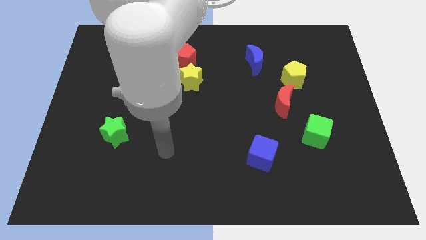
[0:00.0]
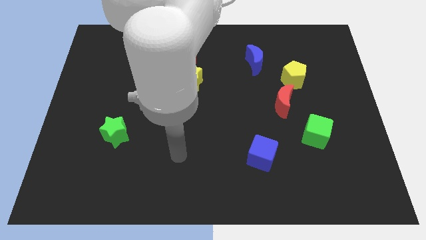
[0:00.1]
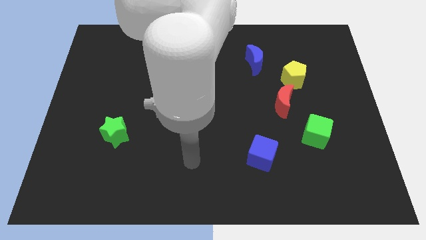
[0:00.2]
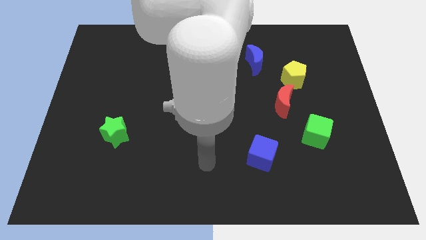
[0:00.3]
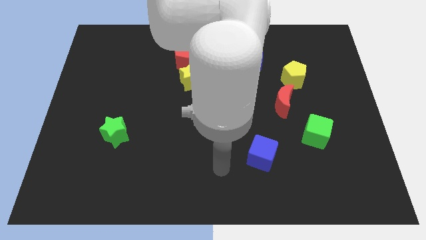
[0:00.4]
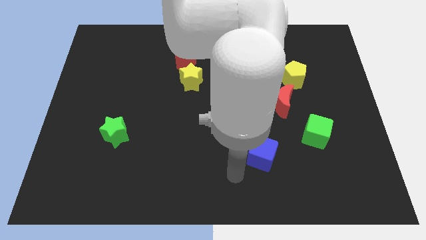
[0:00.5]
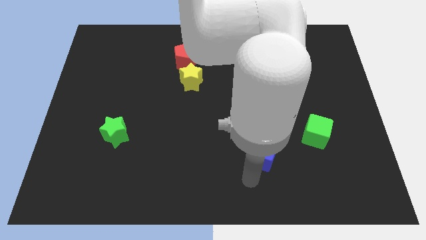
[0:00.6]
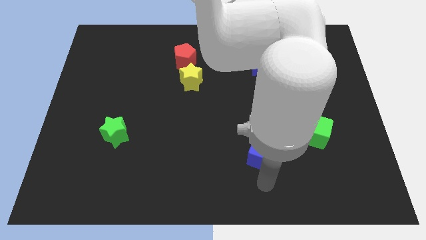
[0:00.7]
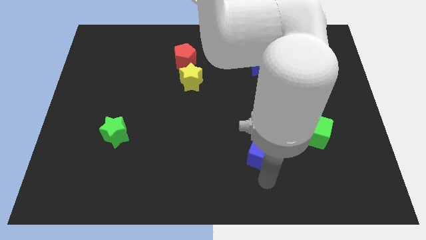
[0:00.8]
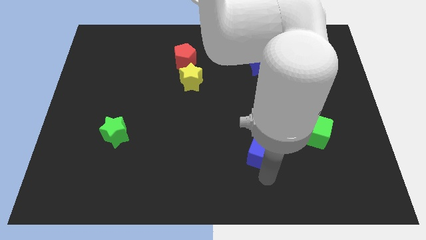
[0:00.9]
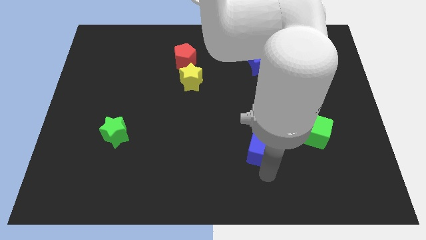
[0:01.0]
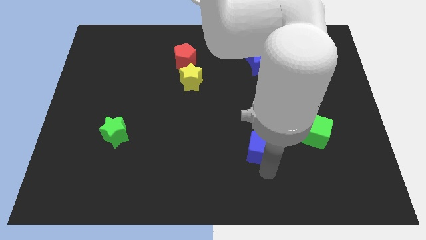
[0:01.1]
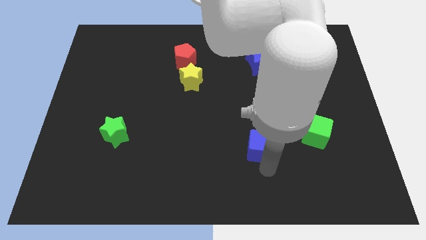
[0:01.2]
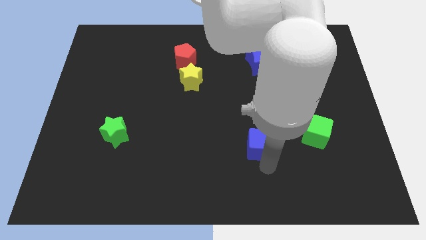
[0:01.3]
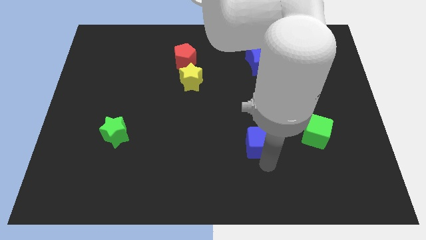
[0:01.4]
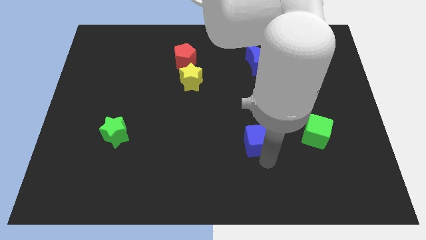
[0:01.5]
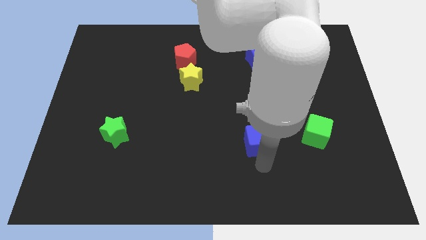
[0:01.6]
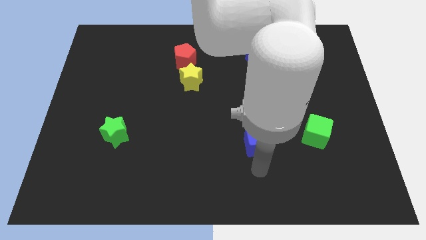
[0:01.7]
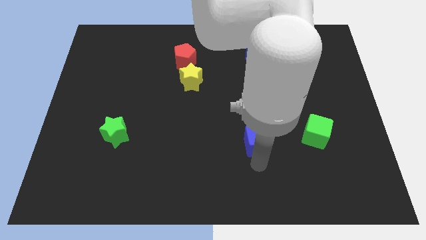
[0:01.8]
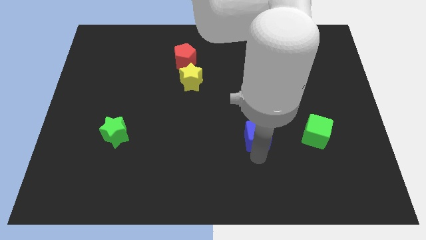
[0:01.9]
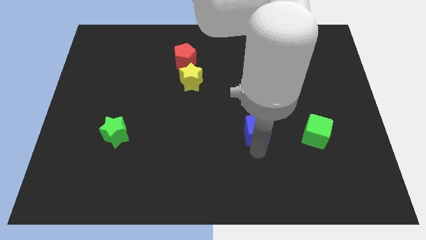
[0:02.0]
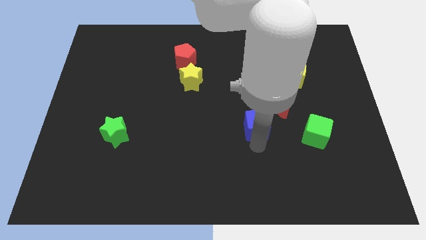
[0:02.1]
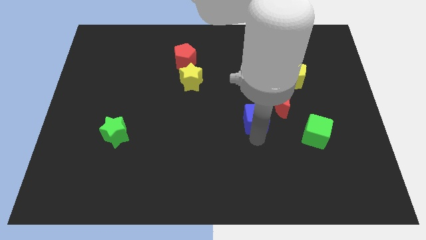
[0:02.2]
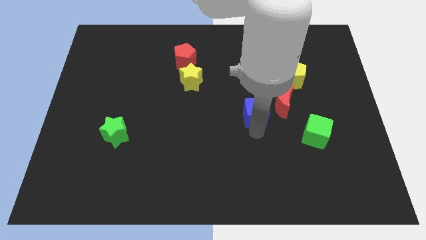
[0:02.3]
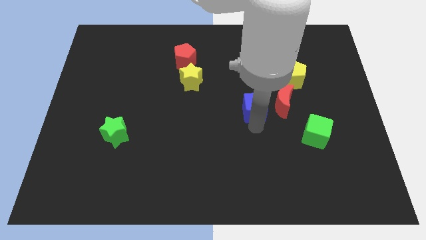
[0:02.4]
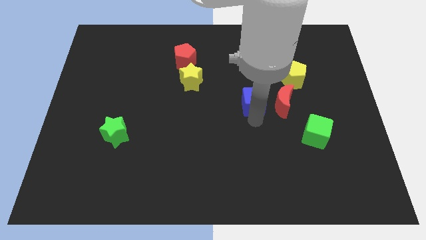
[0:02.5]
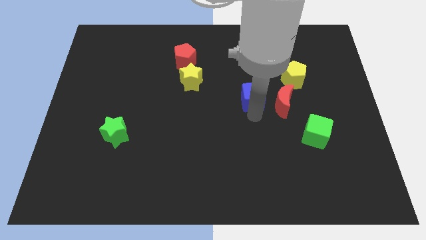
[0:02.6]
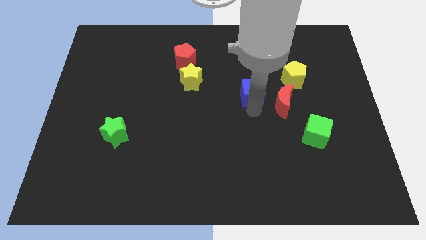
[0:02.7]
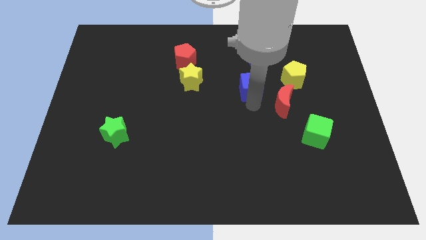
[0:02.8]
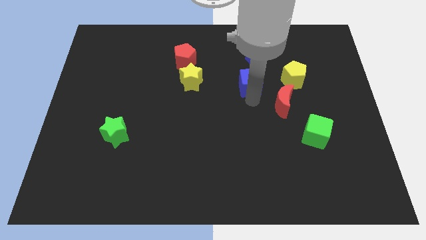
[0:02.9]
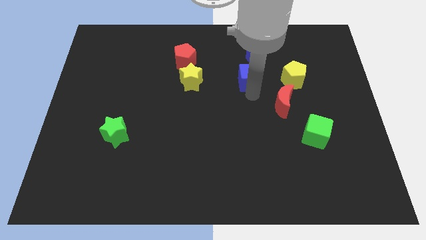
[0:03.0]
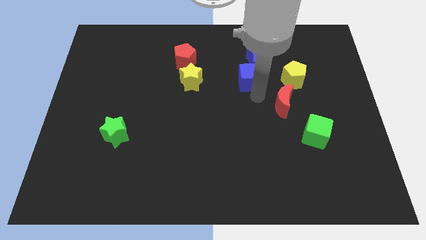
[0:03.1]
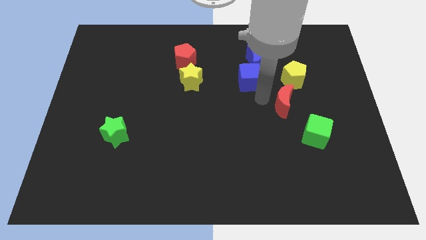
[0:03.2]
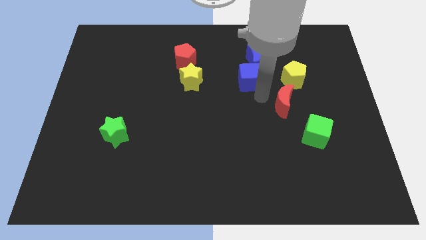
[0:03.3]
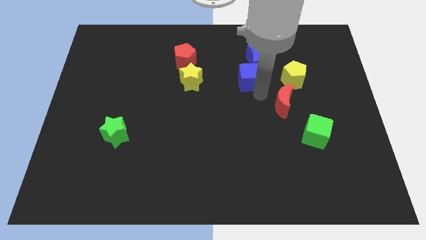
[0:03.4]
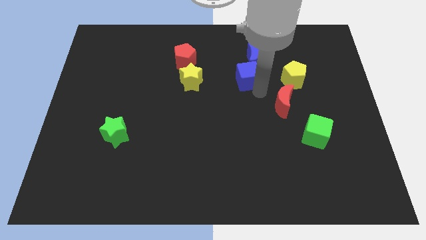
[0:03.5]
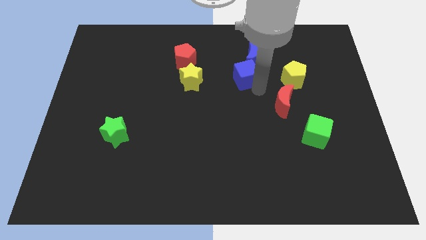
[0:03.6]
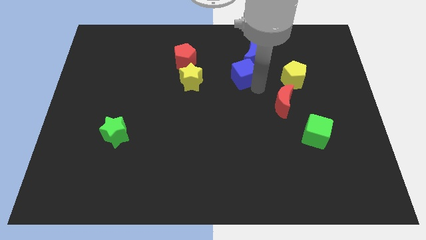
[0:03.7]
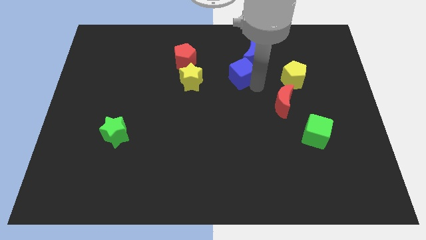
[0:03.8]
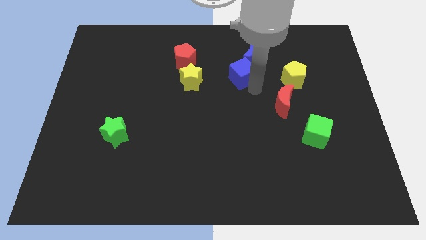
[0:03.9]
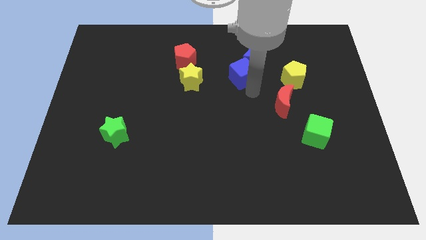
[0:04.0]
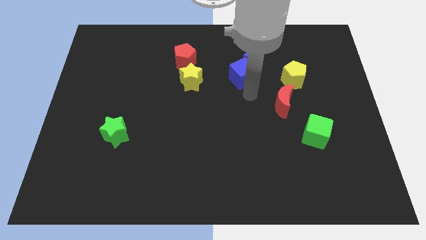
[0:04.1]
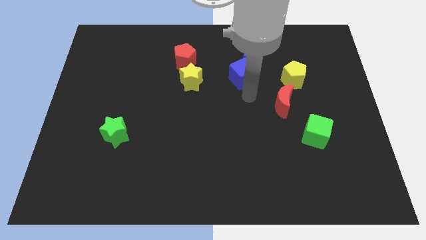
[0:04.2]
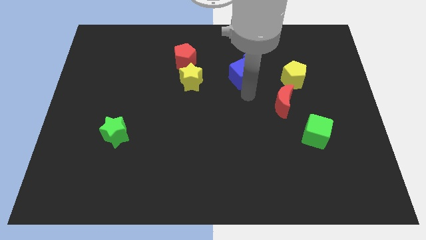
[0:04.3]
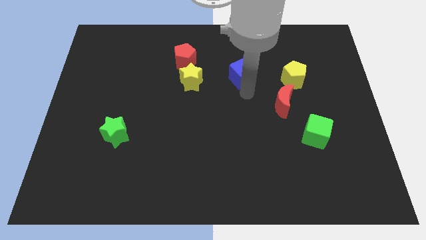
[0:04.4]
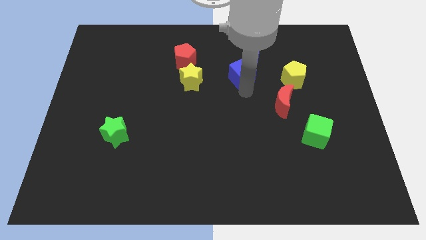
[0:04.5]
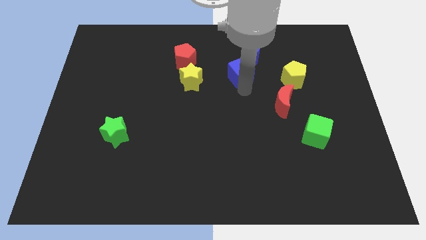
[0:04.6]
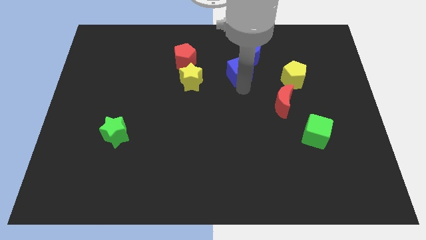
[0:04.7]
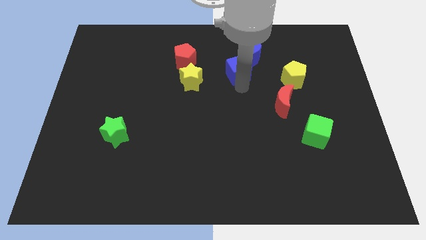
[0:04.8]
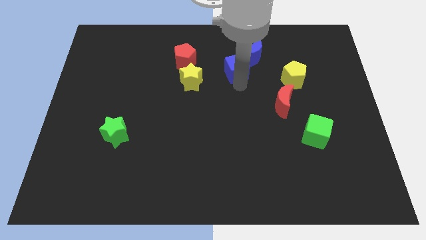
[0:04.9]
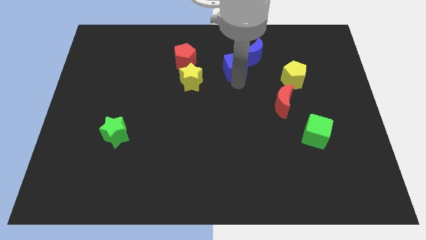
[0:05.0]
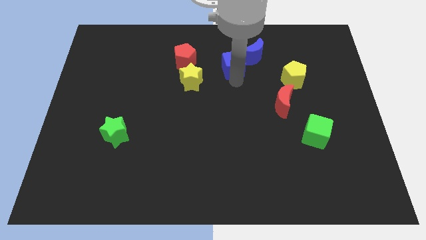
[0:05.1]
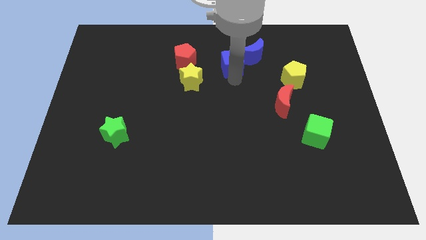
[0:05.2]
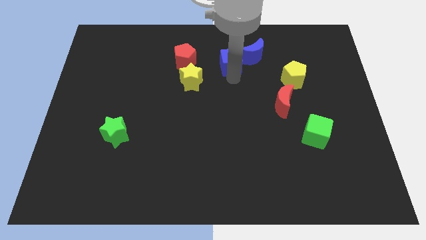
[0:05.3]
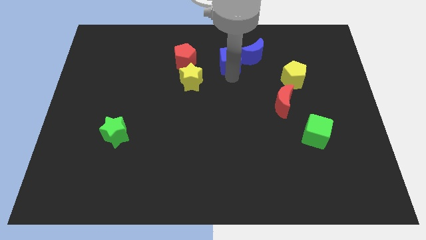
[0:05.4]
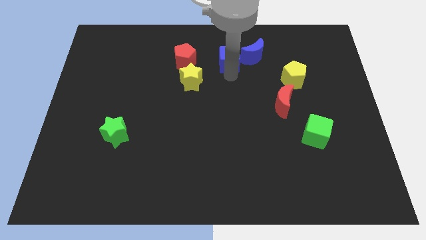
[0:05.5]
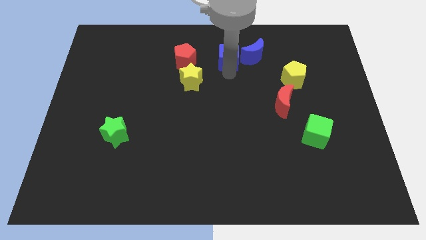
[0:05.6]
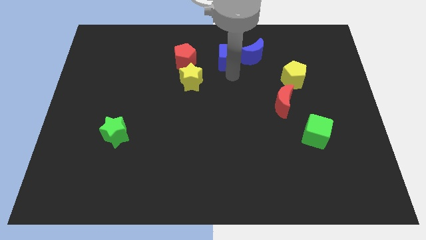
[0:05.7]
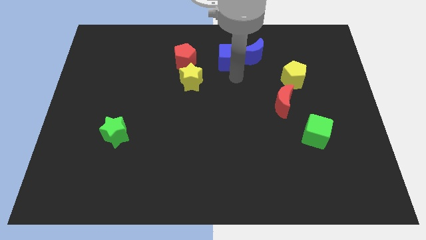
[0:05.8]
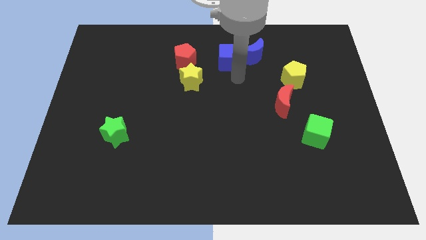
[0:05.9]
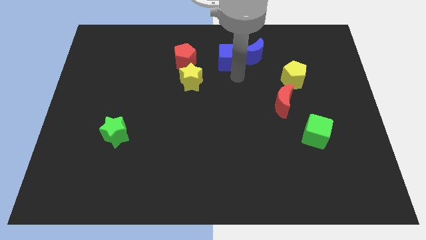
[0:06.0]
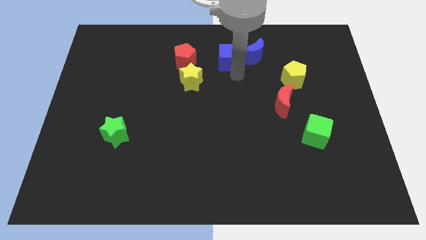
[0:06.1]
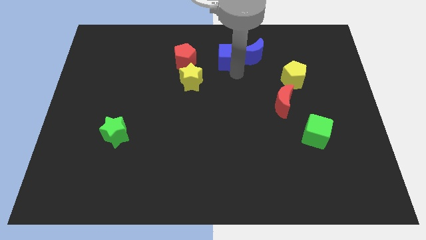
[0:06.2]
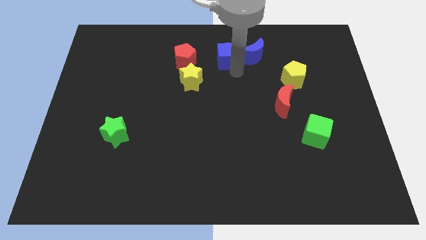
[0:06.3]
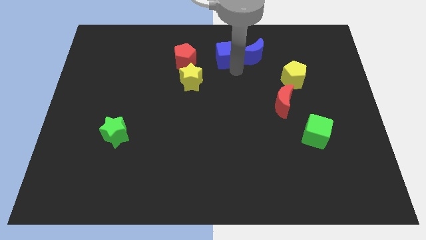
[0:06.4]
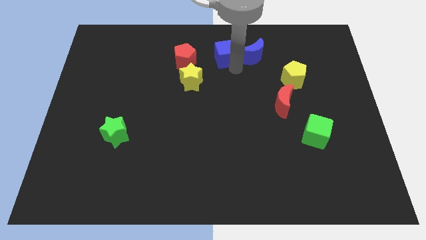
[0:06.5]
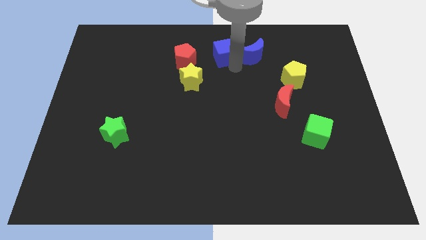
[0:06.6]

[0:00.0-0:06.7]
slide the blue cube to the top

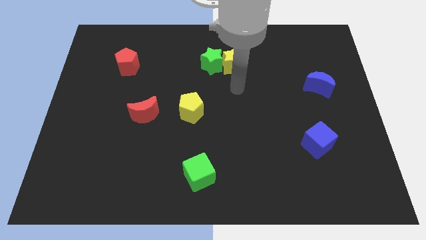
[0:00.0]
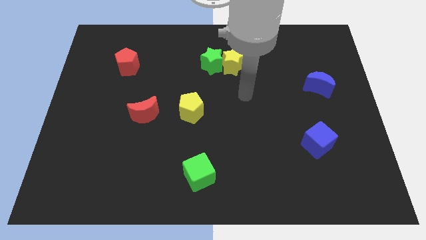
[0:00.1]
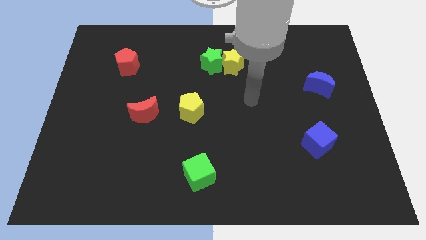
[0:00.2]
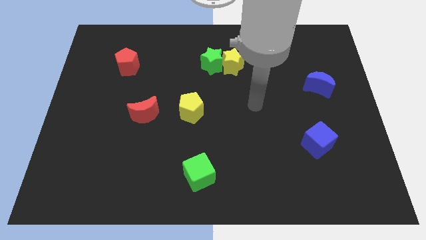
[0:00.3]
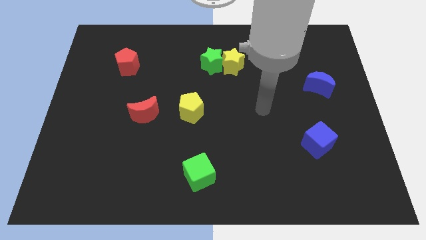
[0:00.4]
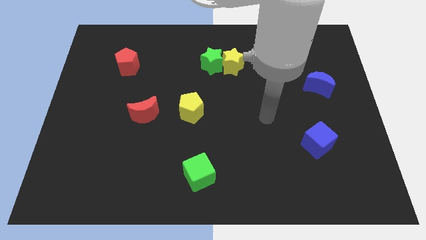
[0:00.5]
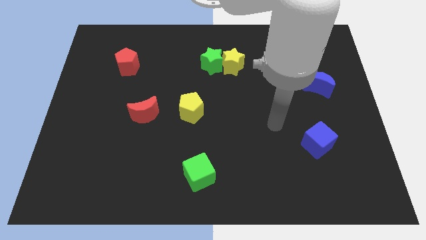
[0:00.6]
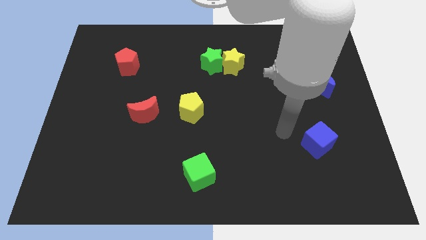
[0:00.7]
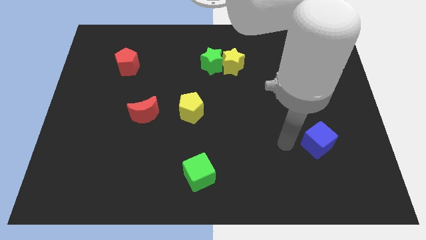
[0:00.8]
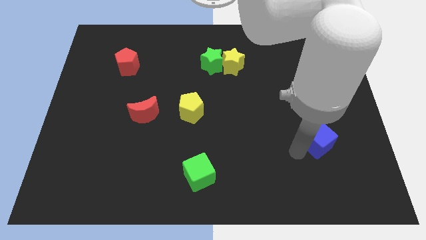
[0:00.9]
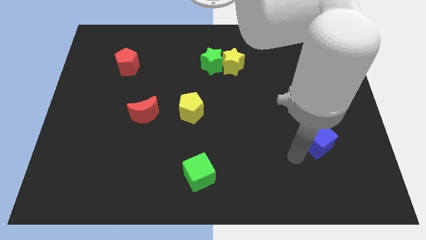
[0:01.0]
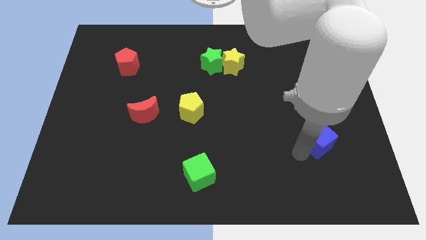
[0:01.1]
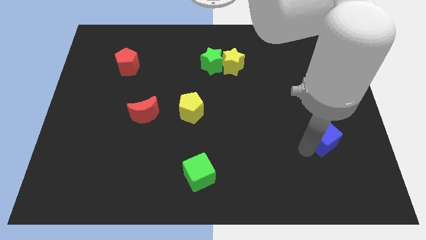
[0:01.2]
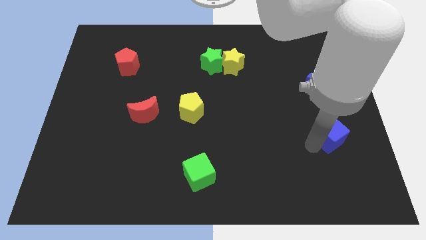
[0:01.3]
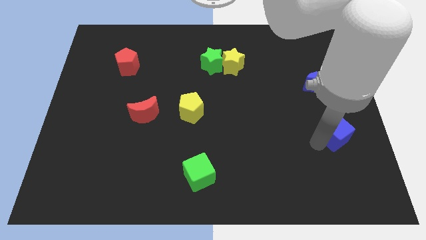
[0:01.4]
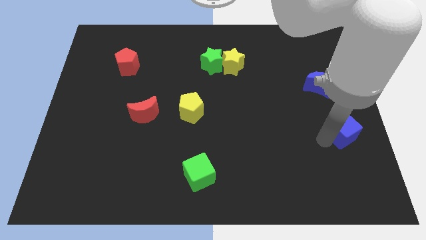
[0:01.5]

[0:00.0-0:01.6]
move the blue cube to the center right
